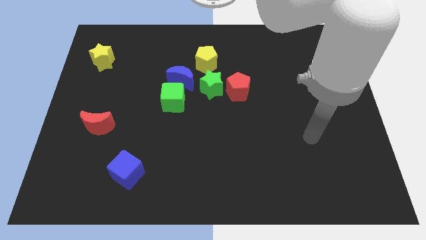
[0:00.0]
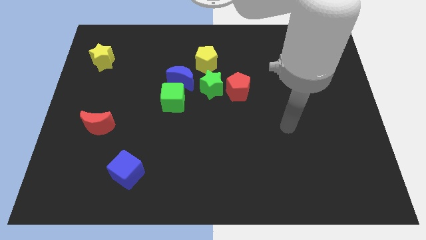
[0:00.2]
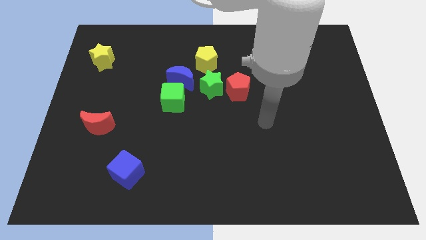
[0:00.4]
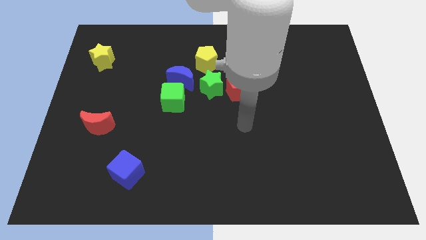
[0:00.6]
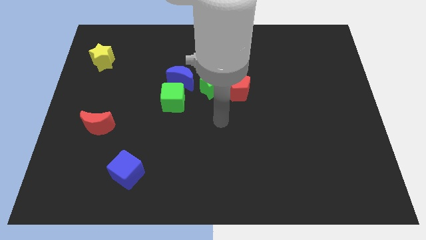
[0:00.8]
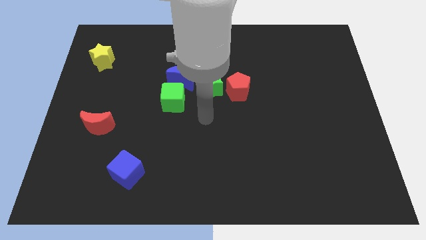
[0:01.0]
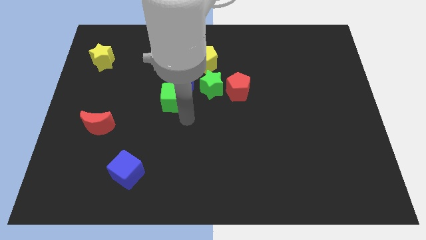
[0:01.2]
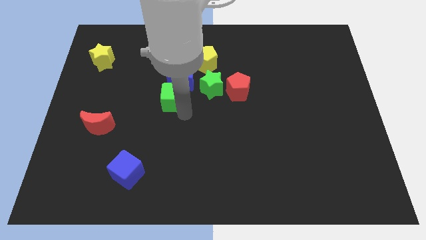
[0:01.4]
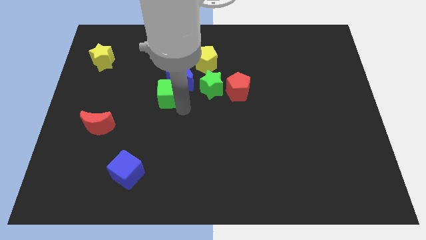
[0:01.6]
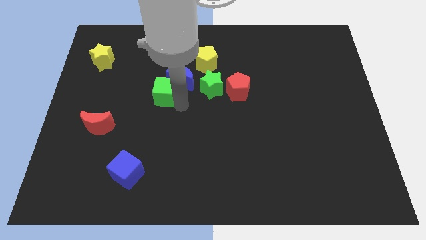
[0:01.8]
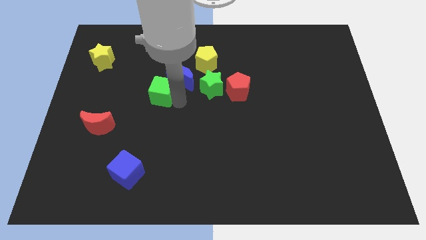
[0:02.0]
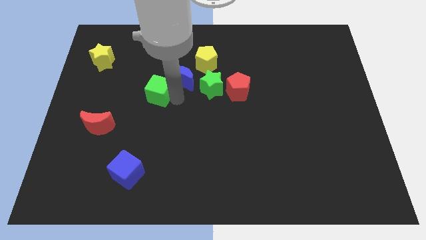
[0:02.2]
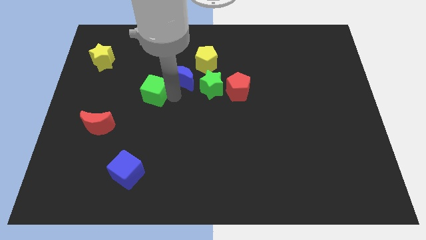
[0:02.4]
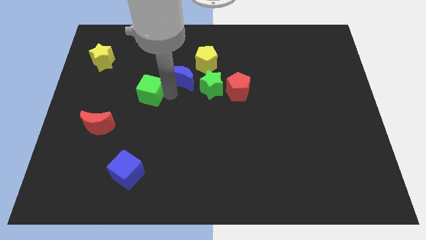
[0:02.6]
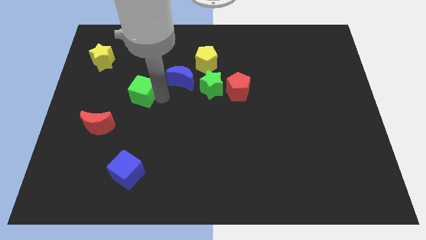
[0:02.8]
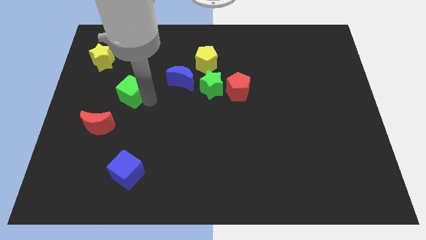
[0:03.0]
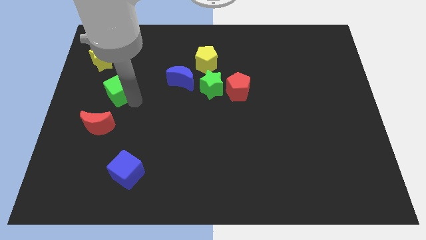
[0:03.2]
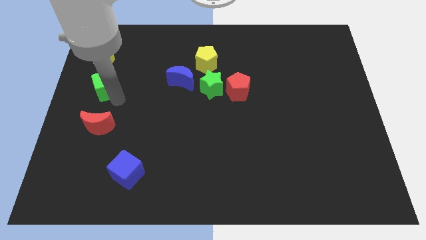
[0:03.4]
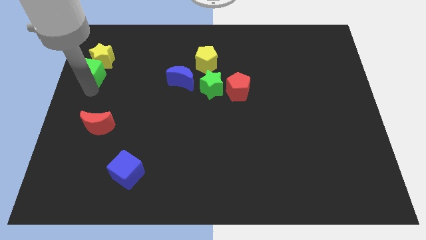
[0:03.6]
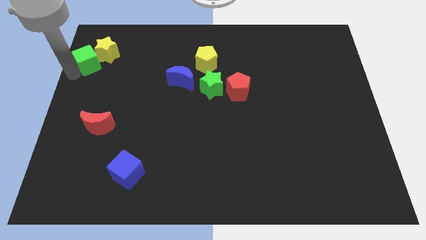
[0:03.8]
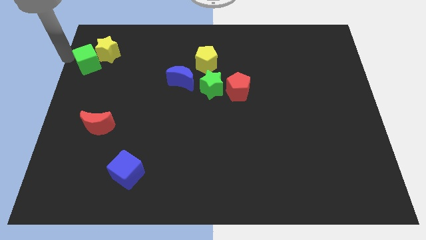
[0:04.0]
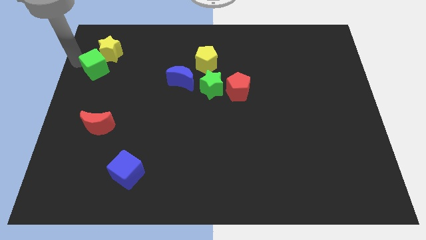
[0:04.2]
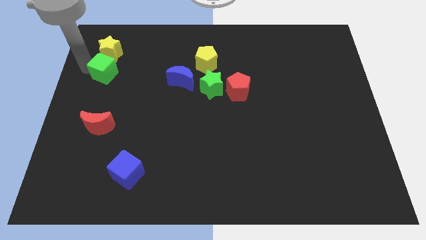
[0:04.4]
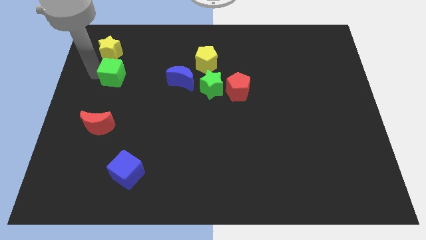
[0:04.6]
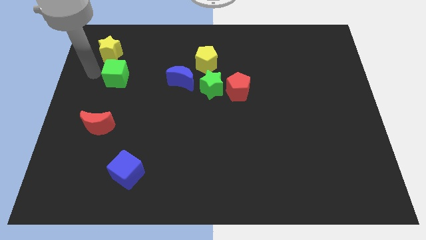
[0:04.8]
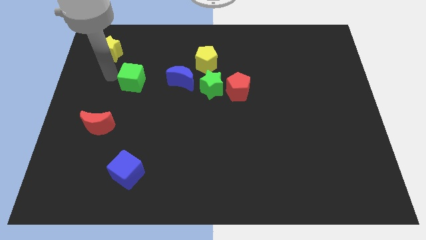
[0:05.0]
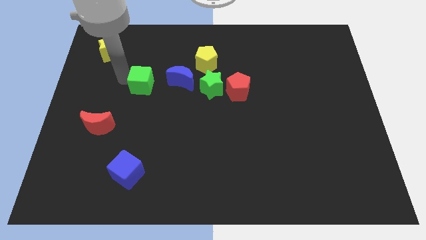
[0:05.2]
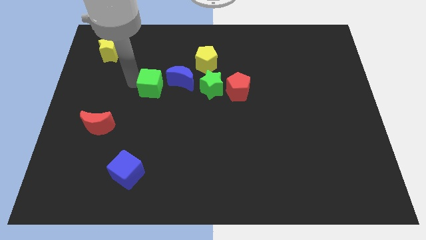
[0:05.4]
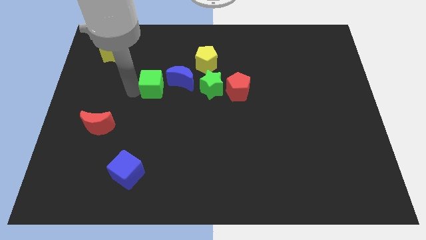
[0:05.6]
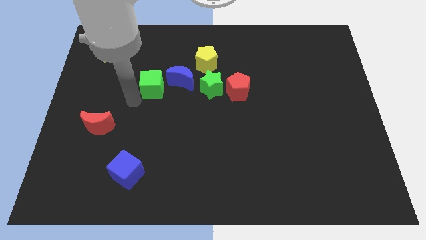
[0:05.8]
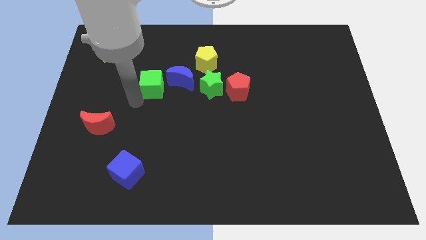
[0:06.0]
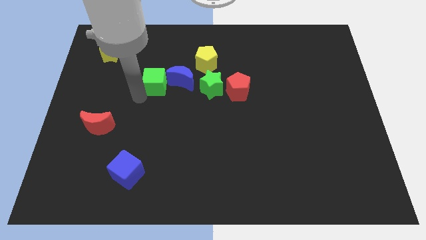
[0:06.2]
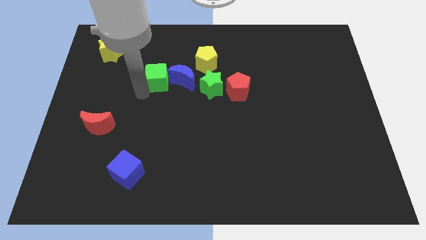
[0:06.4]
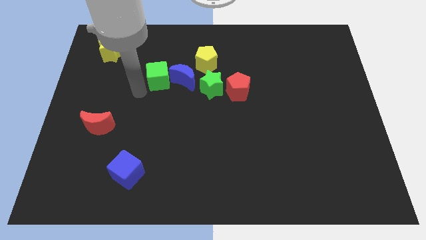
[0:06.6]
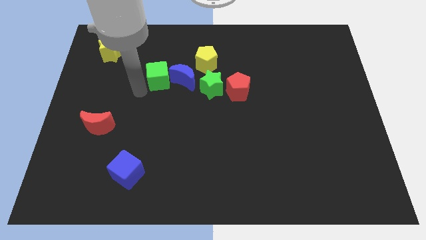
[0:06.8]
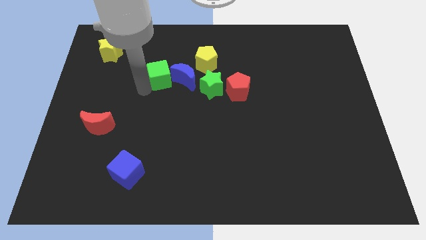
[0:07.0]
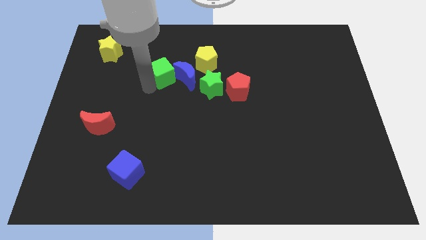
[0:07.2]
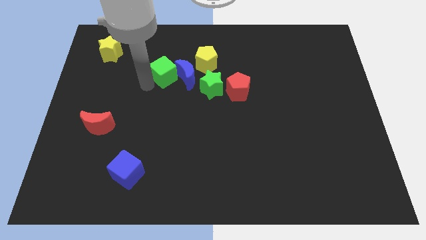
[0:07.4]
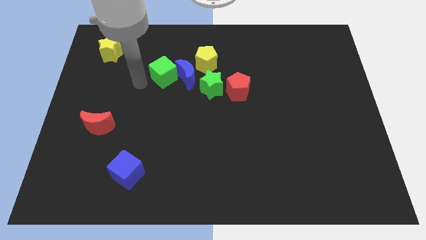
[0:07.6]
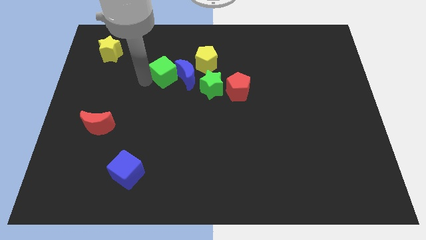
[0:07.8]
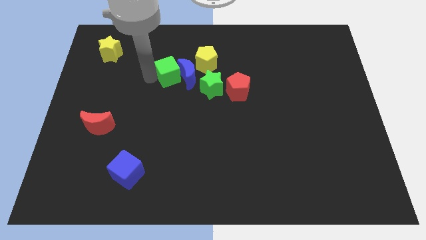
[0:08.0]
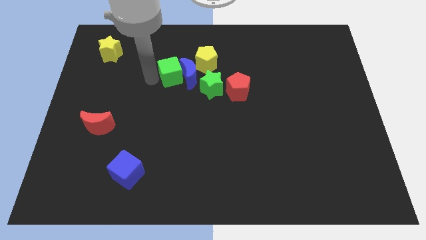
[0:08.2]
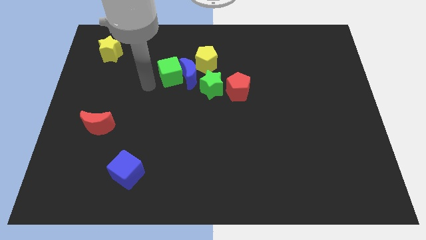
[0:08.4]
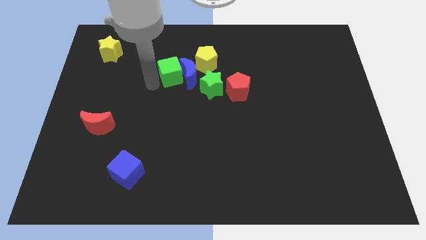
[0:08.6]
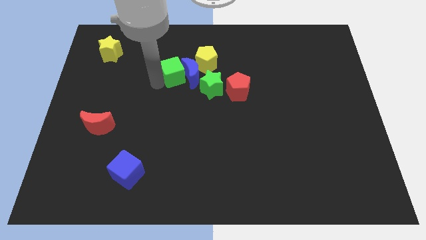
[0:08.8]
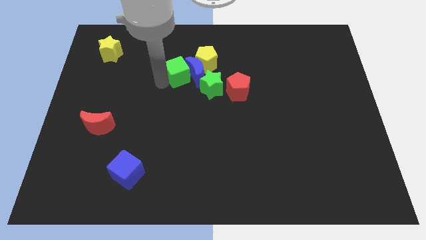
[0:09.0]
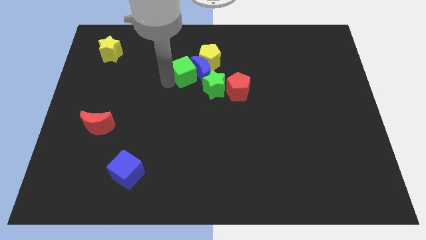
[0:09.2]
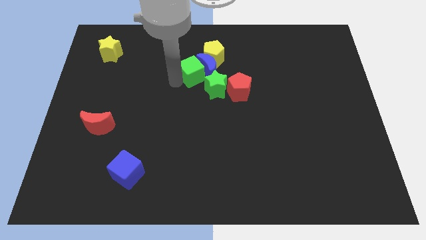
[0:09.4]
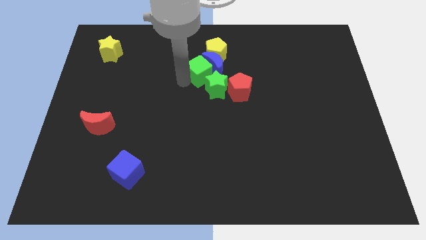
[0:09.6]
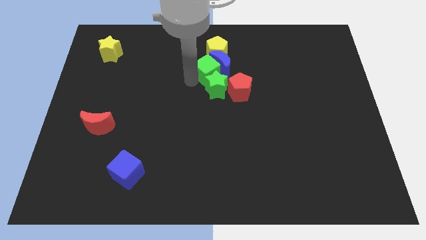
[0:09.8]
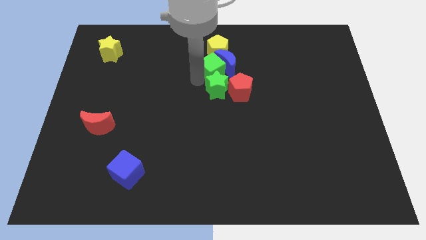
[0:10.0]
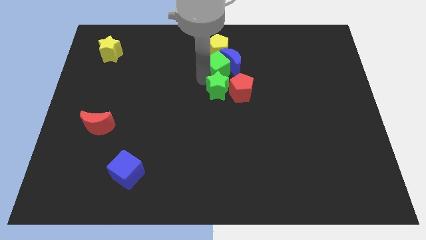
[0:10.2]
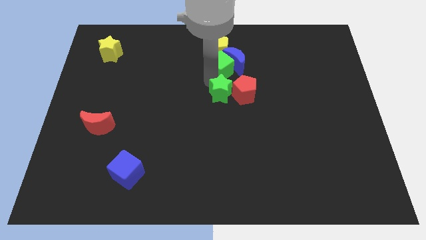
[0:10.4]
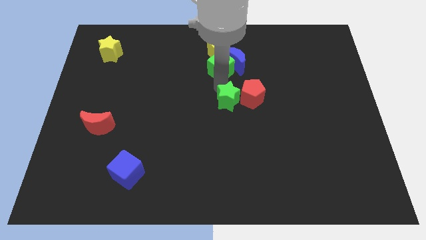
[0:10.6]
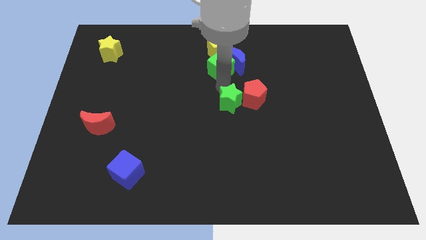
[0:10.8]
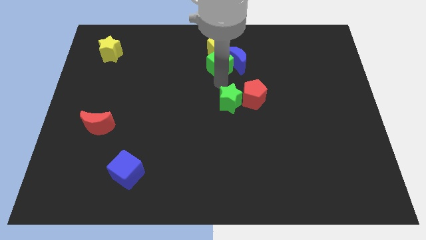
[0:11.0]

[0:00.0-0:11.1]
slide the green cube next to the yellow pentagon

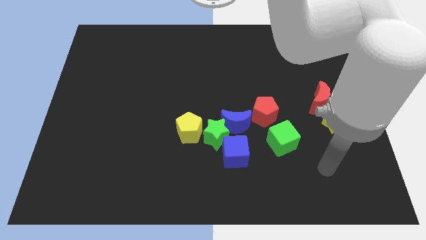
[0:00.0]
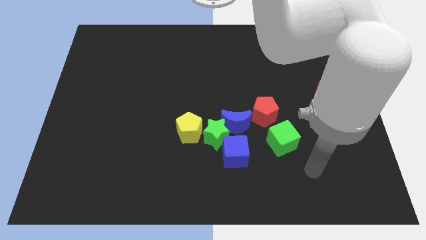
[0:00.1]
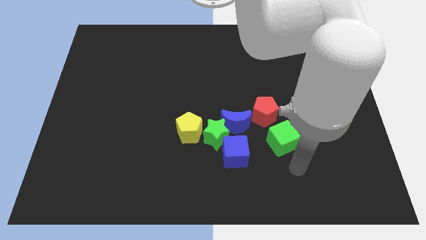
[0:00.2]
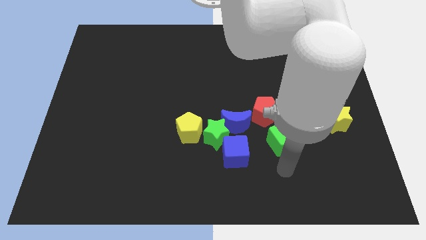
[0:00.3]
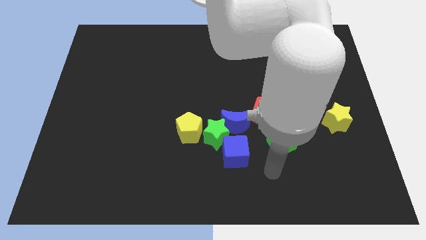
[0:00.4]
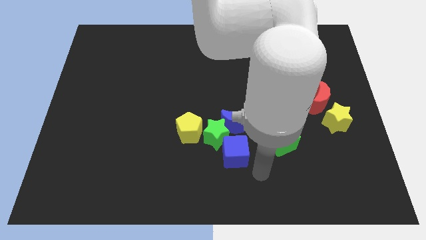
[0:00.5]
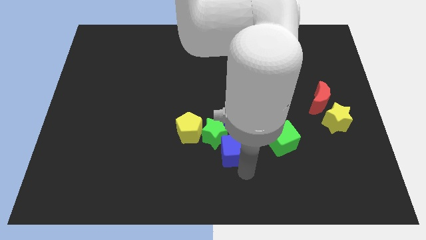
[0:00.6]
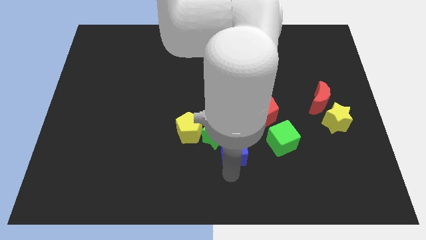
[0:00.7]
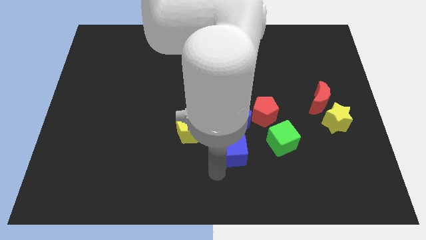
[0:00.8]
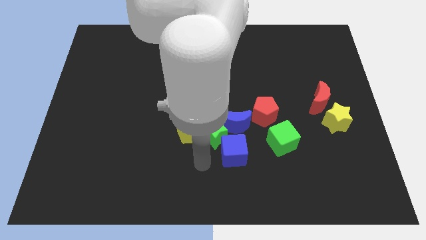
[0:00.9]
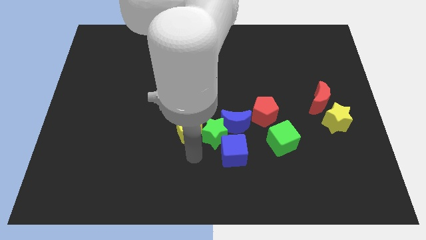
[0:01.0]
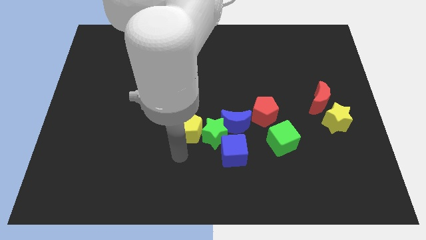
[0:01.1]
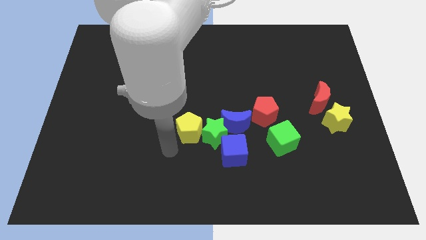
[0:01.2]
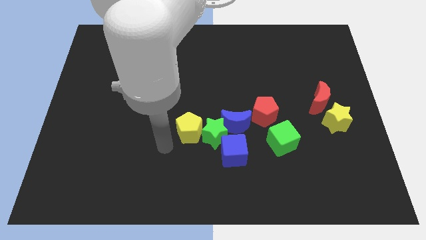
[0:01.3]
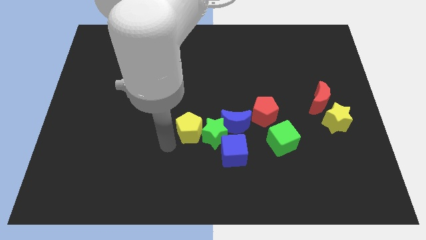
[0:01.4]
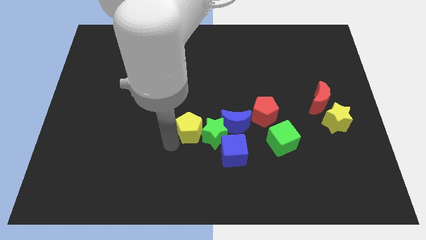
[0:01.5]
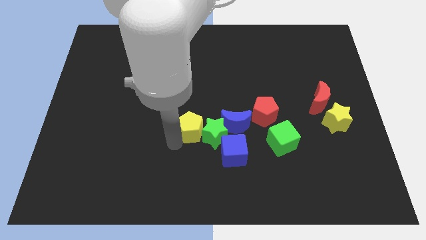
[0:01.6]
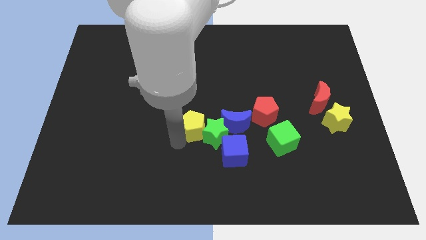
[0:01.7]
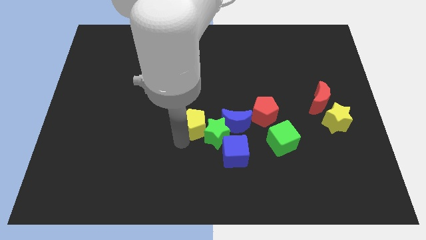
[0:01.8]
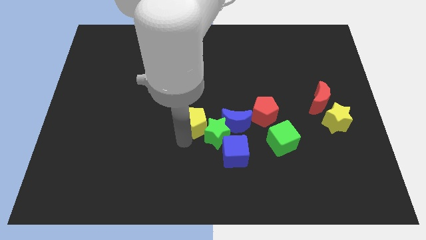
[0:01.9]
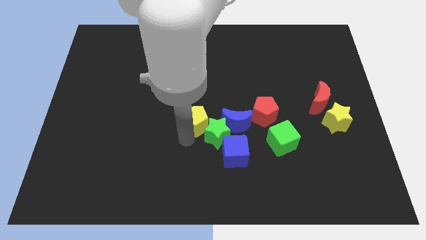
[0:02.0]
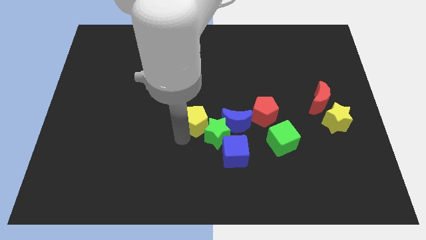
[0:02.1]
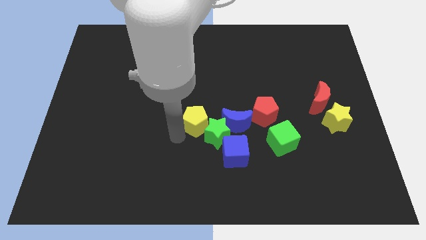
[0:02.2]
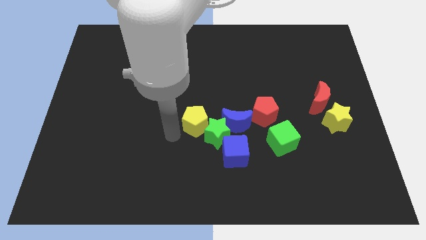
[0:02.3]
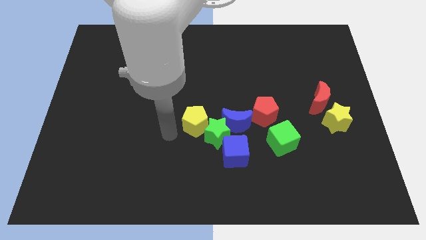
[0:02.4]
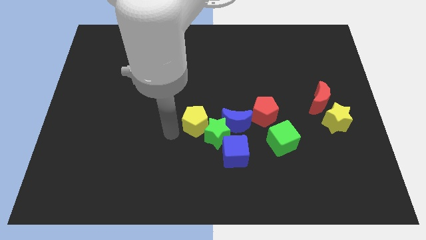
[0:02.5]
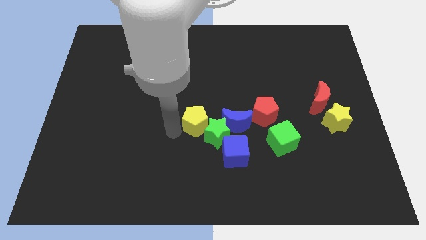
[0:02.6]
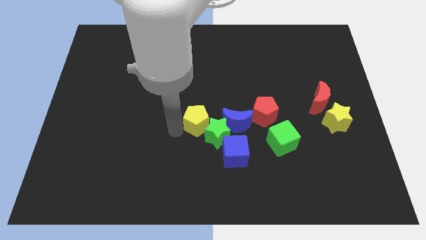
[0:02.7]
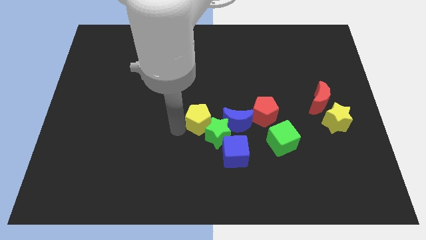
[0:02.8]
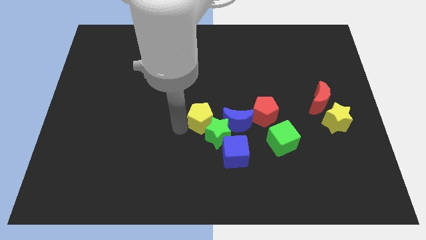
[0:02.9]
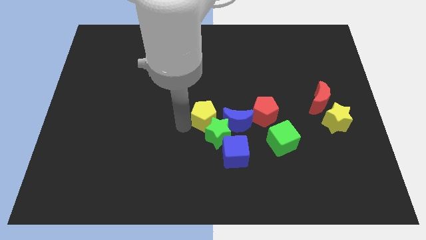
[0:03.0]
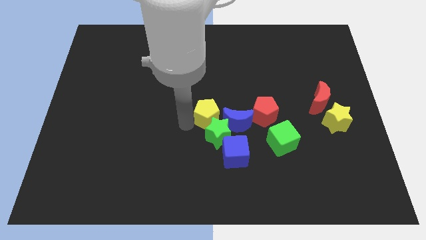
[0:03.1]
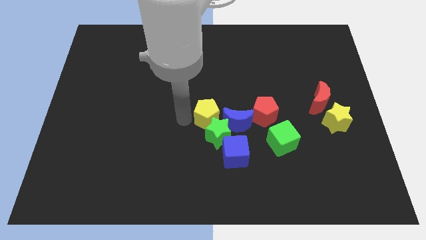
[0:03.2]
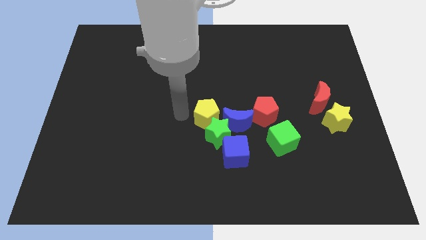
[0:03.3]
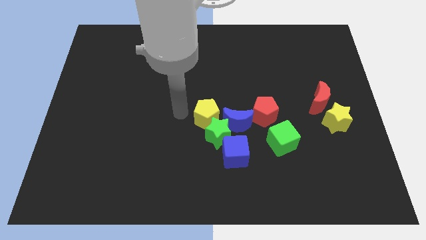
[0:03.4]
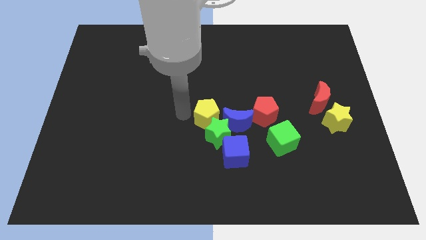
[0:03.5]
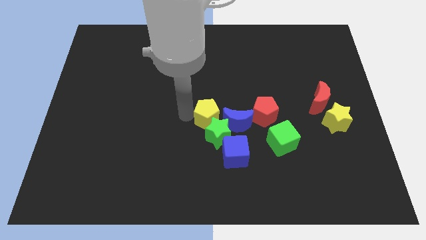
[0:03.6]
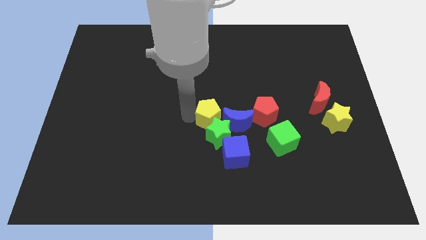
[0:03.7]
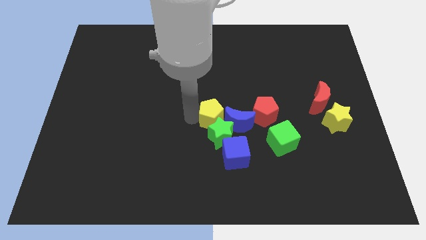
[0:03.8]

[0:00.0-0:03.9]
slide the yellow pentagon next to the blue moon
